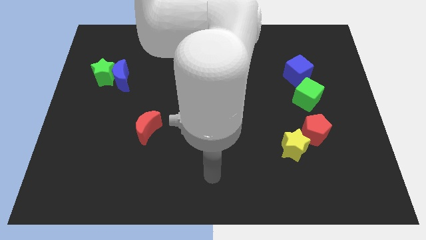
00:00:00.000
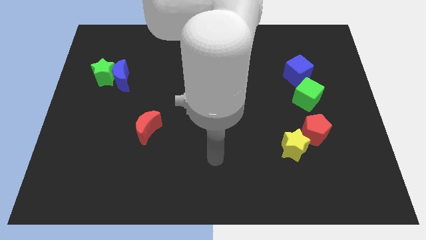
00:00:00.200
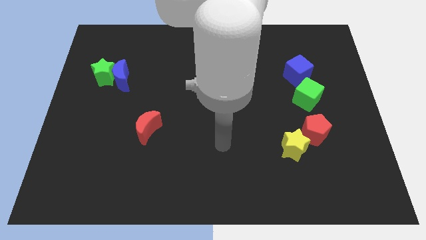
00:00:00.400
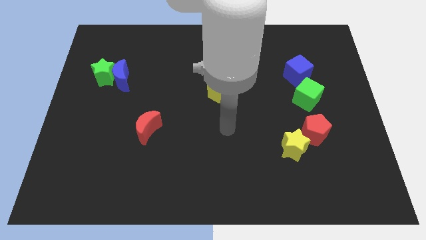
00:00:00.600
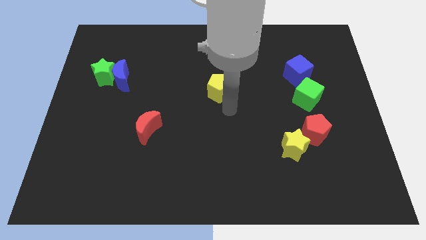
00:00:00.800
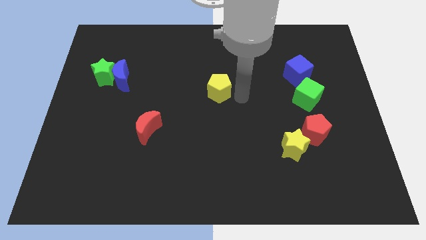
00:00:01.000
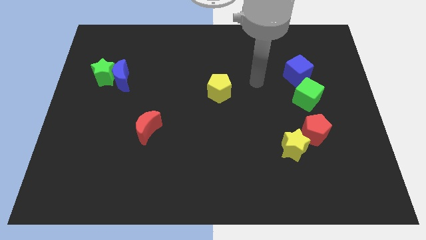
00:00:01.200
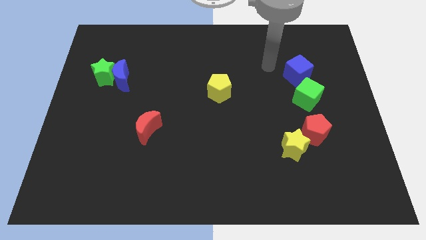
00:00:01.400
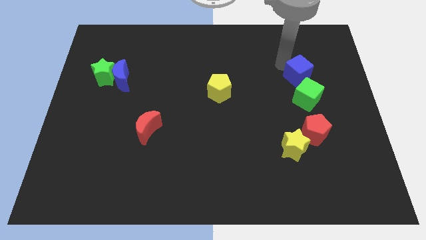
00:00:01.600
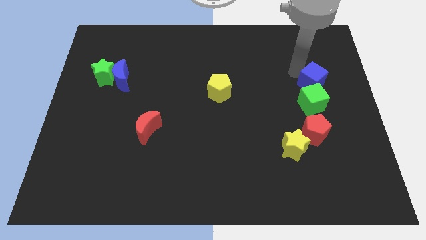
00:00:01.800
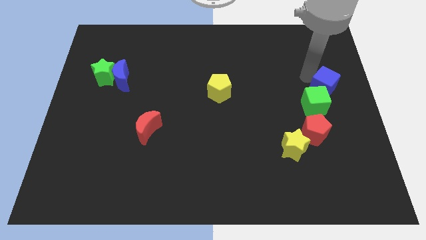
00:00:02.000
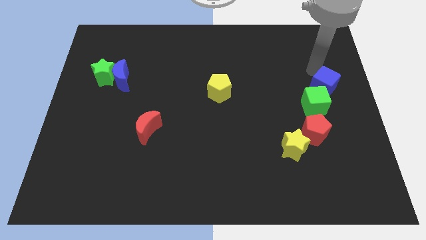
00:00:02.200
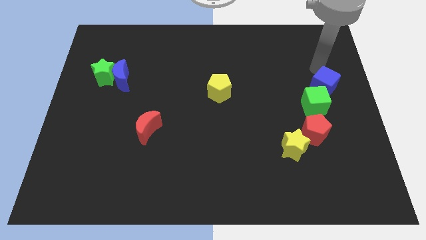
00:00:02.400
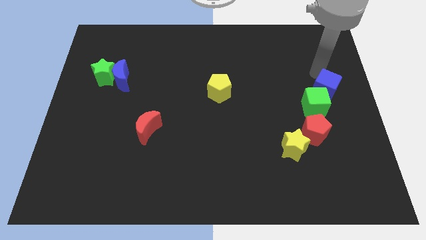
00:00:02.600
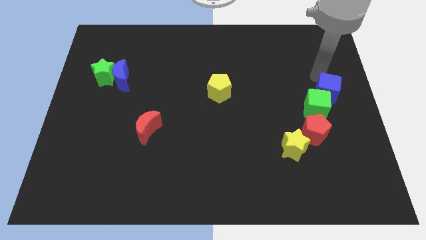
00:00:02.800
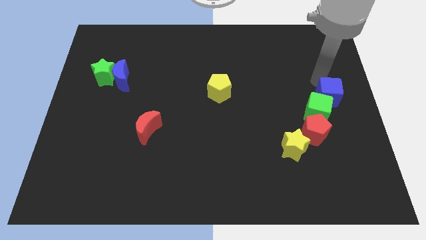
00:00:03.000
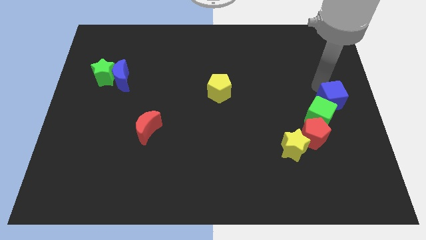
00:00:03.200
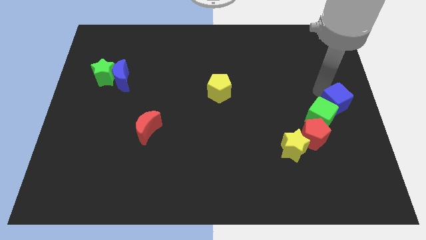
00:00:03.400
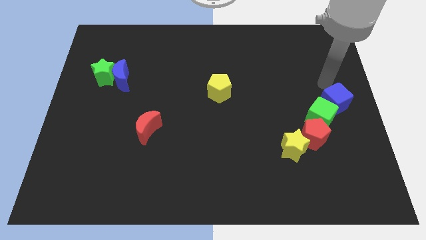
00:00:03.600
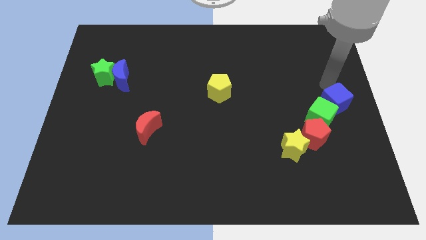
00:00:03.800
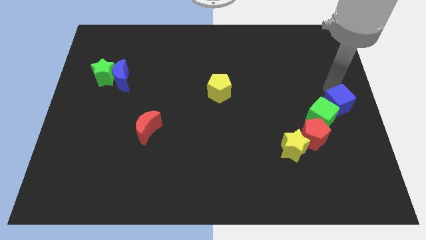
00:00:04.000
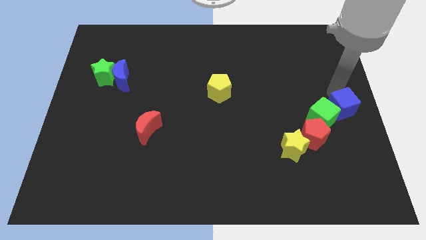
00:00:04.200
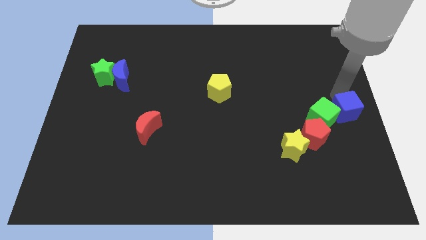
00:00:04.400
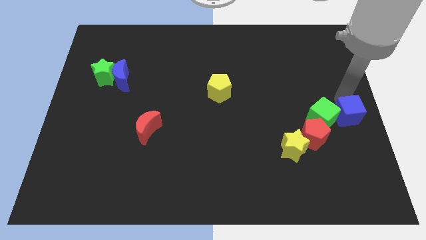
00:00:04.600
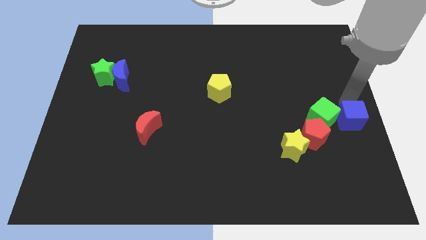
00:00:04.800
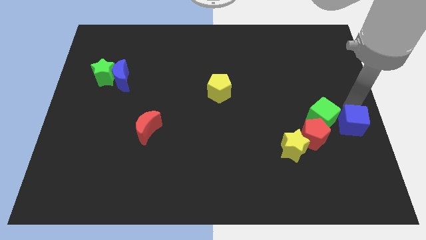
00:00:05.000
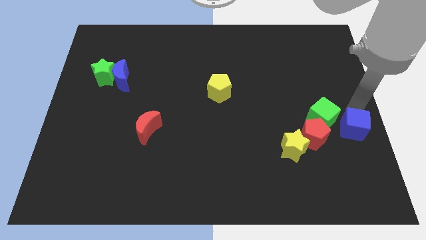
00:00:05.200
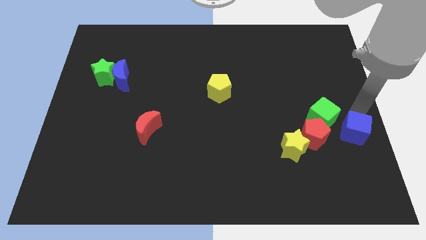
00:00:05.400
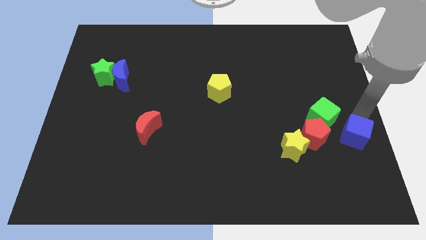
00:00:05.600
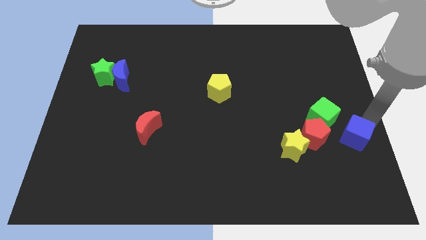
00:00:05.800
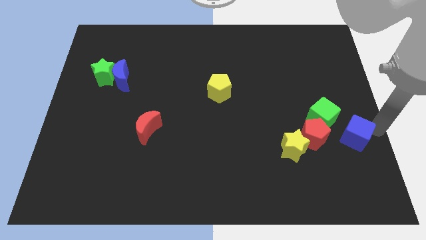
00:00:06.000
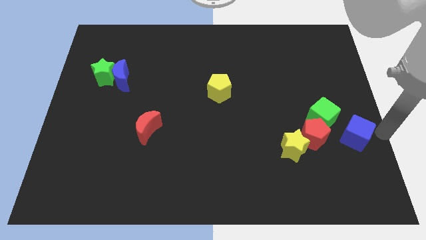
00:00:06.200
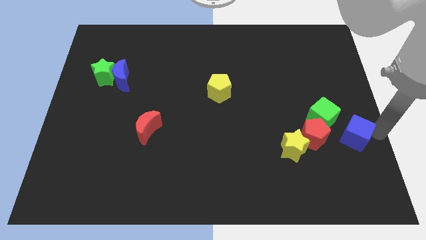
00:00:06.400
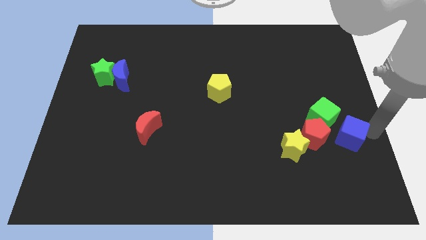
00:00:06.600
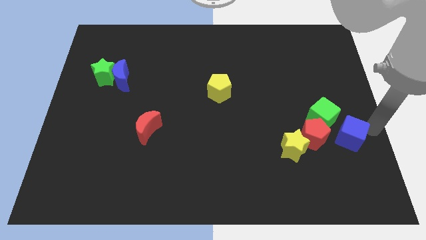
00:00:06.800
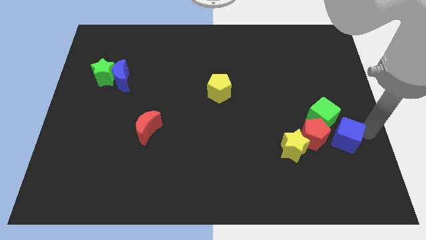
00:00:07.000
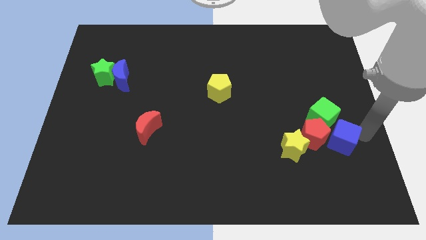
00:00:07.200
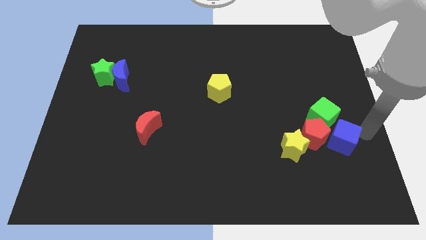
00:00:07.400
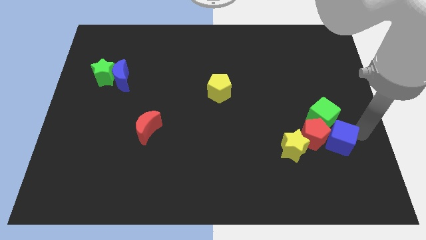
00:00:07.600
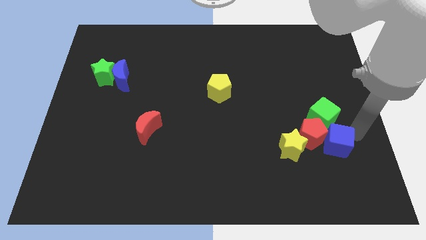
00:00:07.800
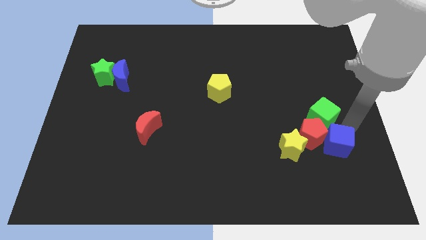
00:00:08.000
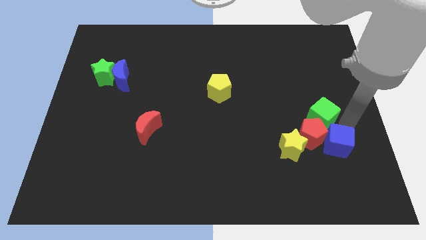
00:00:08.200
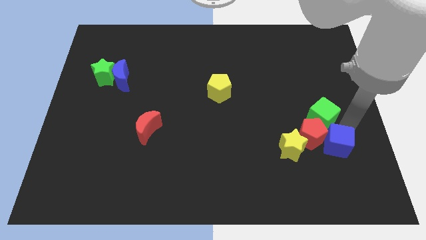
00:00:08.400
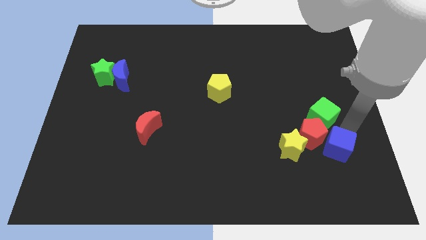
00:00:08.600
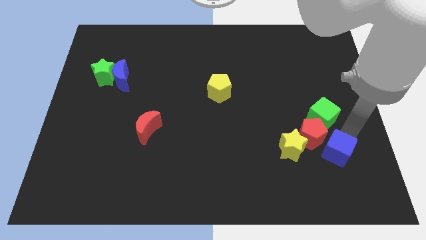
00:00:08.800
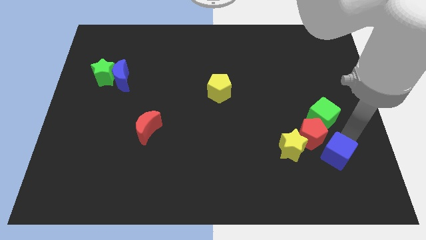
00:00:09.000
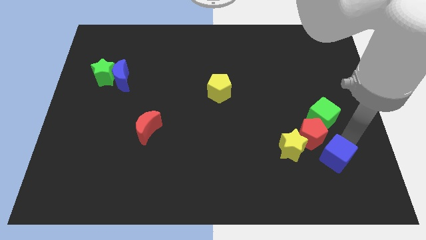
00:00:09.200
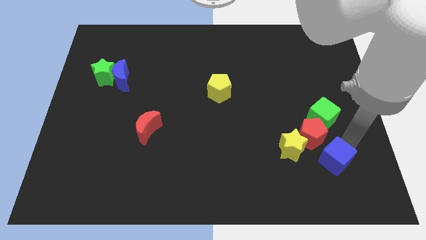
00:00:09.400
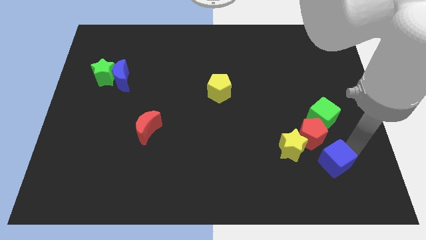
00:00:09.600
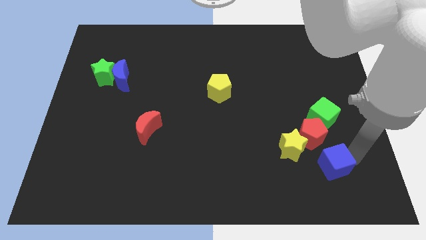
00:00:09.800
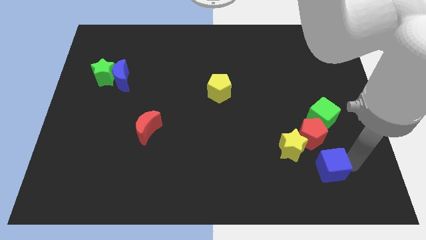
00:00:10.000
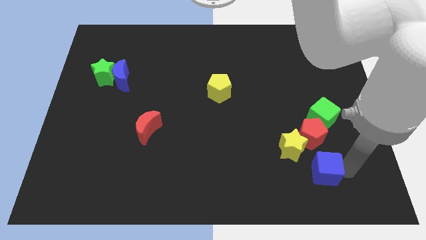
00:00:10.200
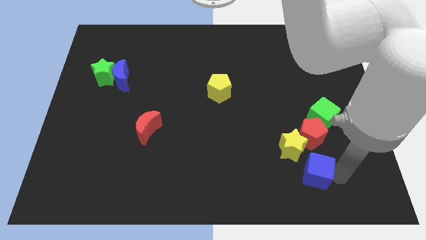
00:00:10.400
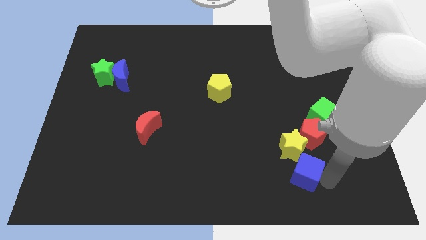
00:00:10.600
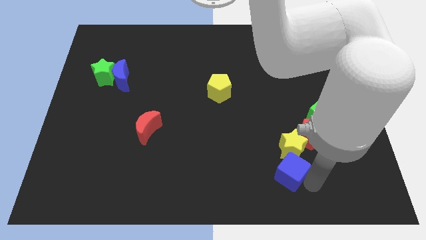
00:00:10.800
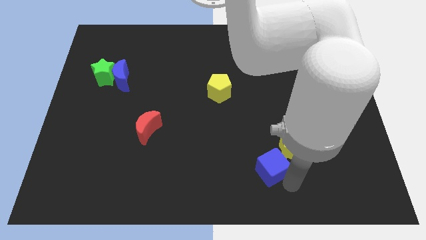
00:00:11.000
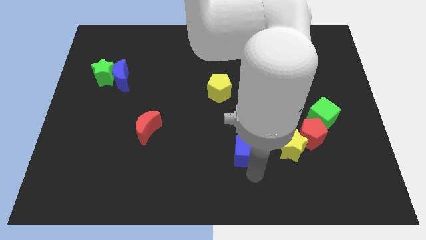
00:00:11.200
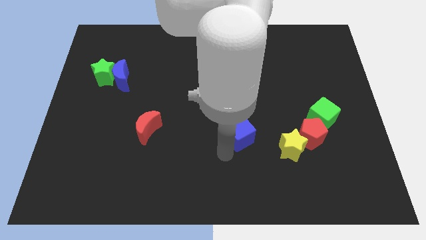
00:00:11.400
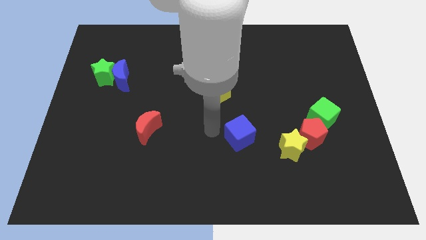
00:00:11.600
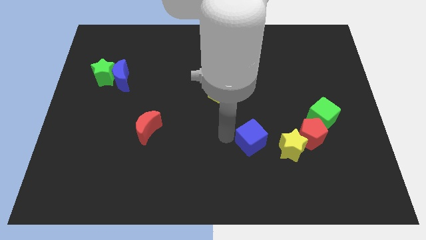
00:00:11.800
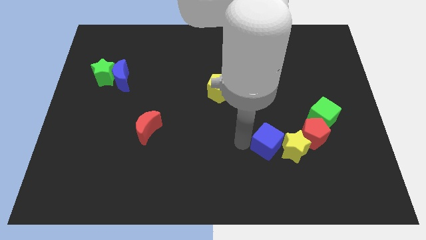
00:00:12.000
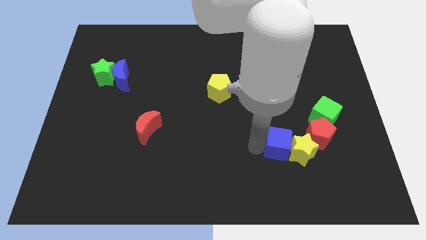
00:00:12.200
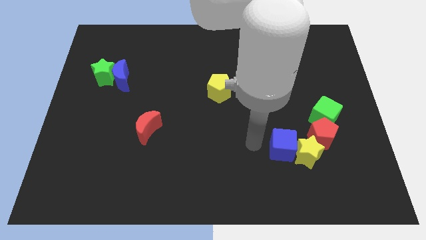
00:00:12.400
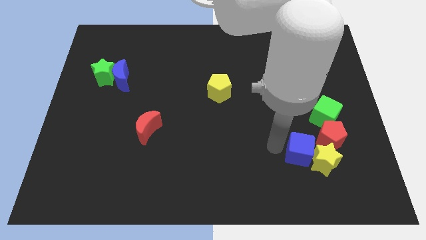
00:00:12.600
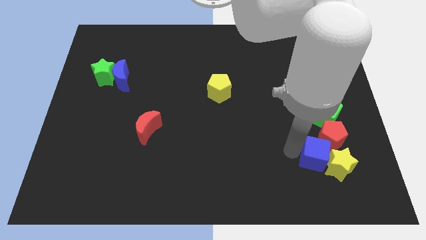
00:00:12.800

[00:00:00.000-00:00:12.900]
put the blue cube below the green cube

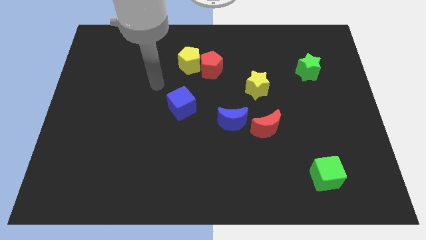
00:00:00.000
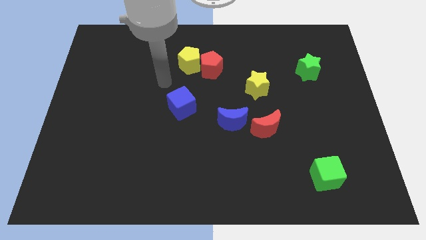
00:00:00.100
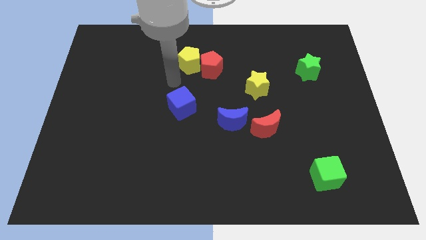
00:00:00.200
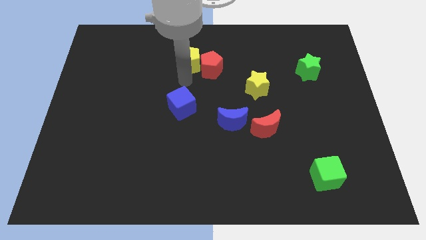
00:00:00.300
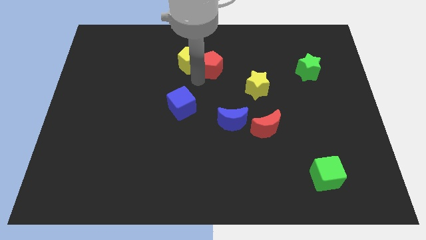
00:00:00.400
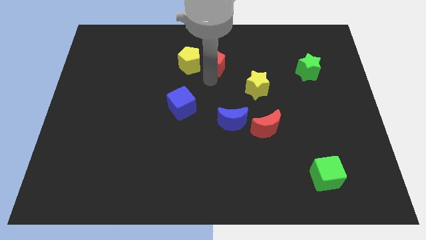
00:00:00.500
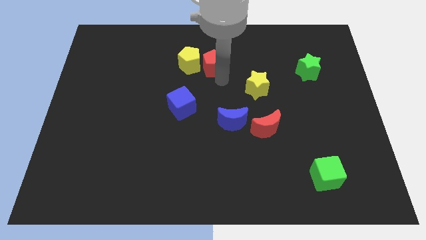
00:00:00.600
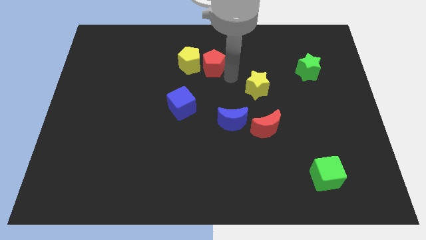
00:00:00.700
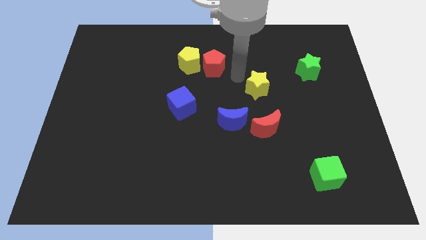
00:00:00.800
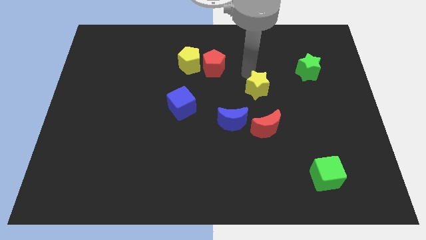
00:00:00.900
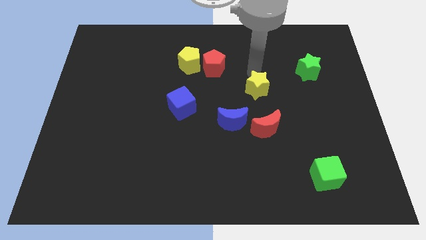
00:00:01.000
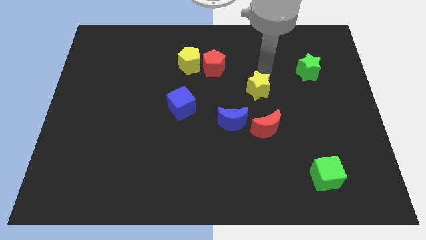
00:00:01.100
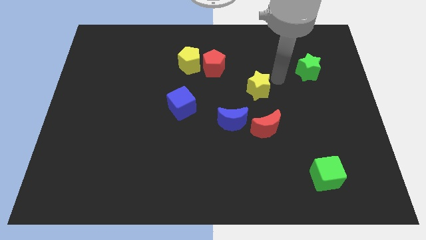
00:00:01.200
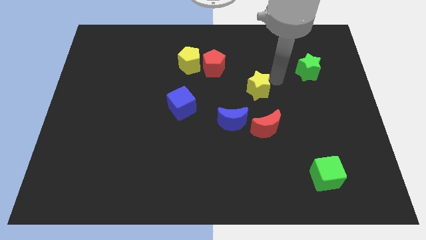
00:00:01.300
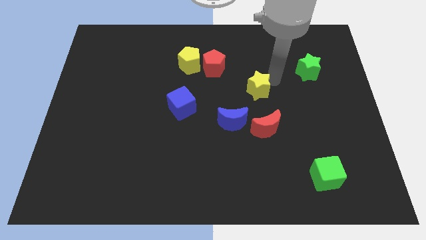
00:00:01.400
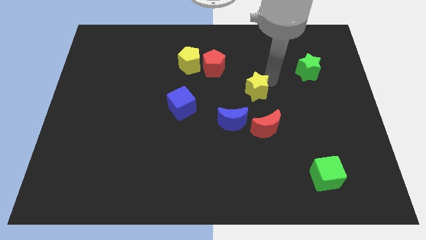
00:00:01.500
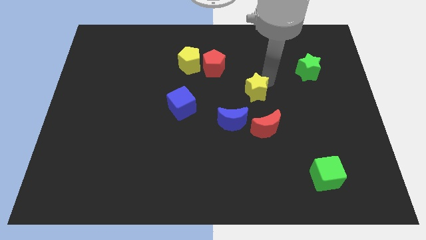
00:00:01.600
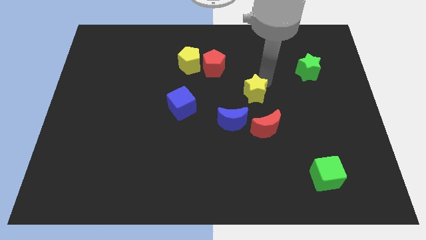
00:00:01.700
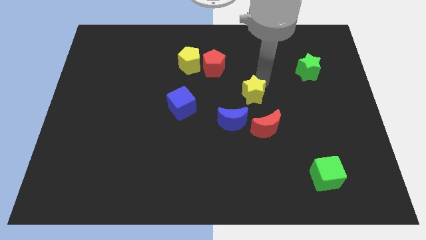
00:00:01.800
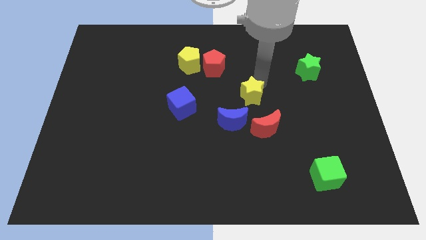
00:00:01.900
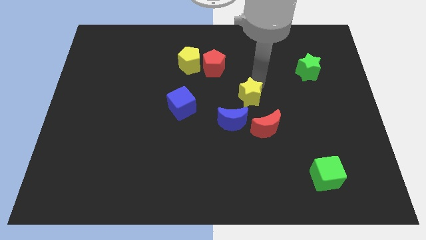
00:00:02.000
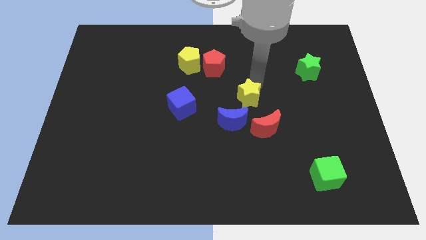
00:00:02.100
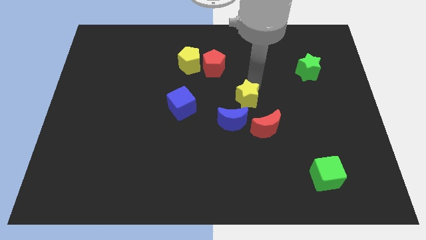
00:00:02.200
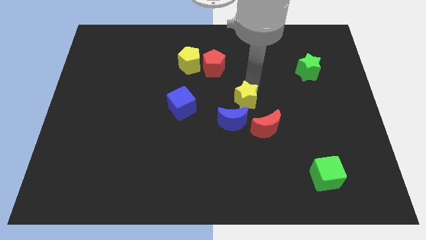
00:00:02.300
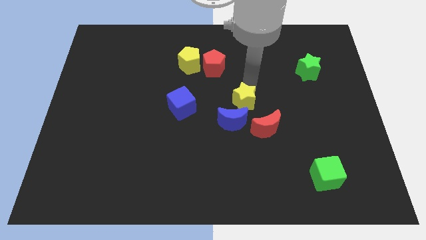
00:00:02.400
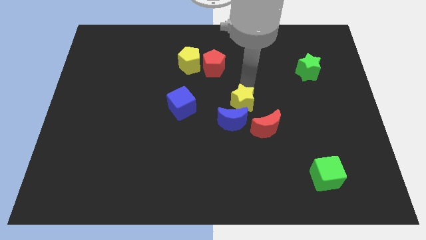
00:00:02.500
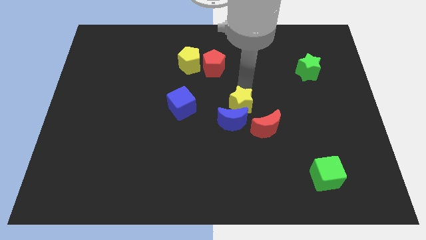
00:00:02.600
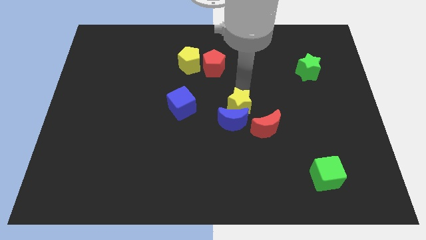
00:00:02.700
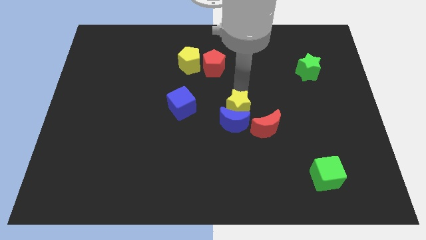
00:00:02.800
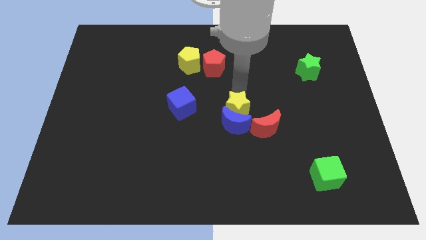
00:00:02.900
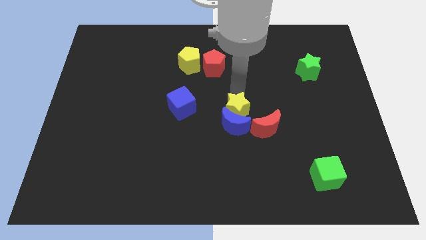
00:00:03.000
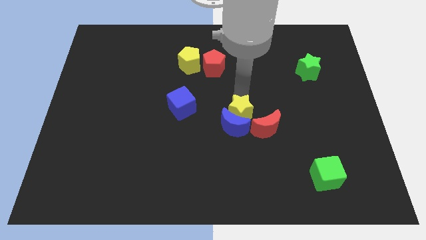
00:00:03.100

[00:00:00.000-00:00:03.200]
put the yellow star left of the red moon
